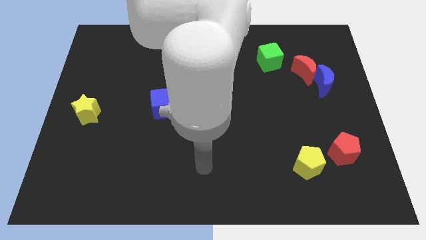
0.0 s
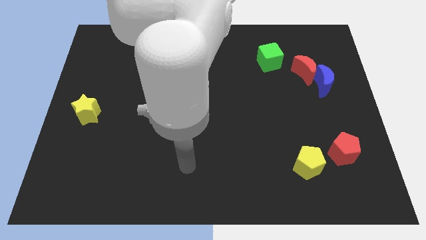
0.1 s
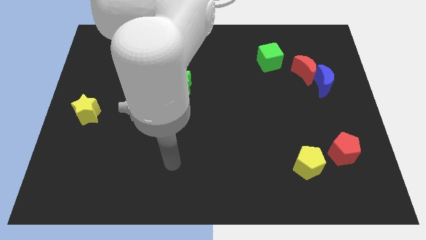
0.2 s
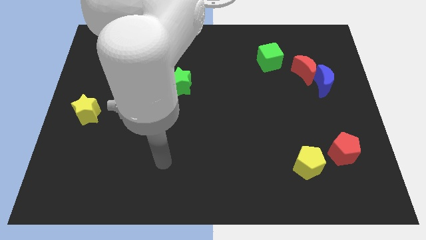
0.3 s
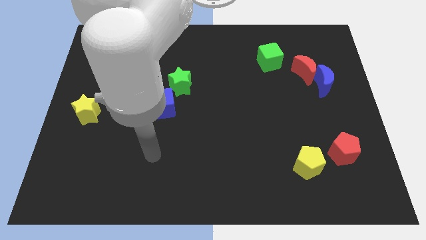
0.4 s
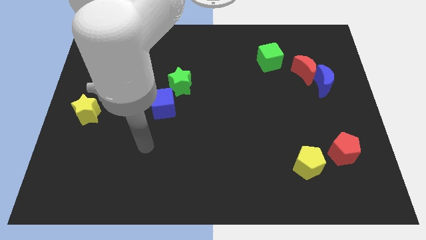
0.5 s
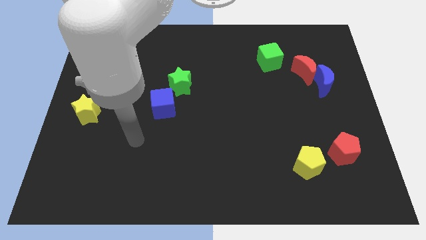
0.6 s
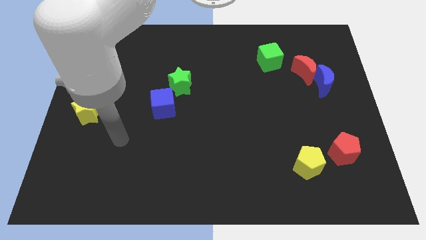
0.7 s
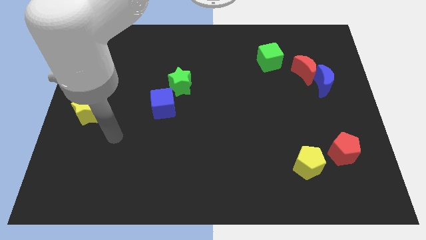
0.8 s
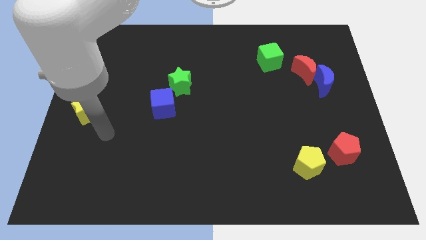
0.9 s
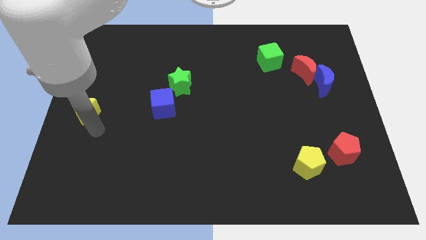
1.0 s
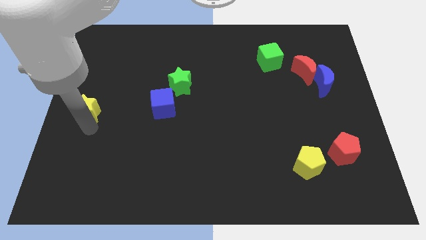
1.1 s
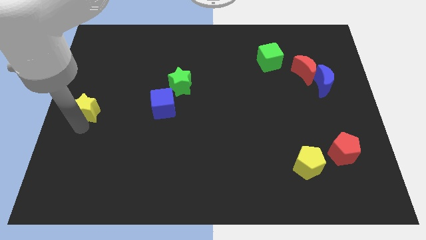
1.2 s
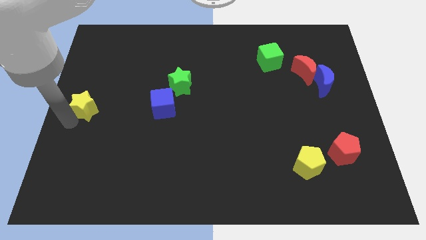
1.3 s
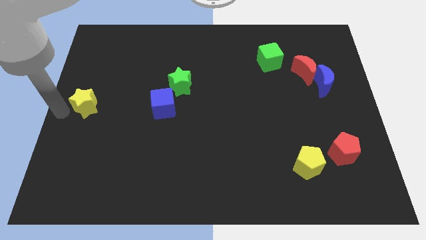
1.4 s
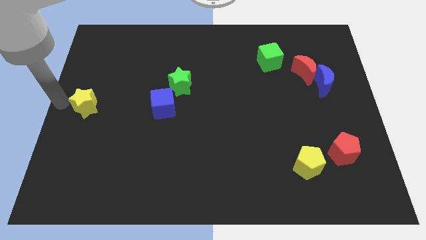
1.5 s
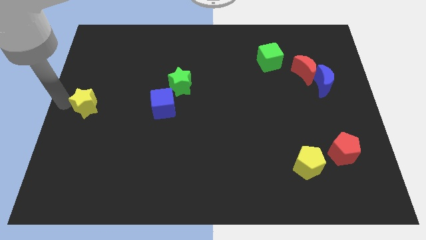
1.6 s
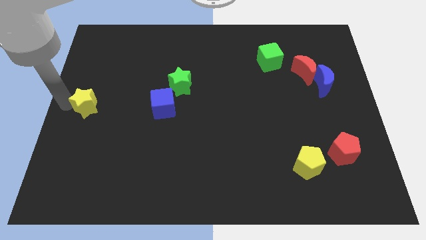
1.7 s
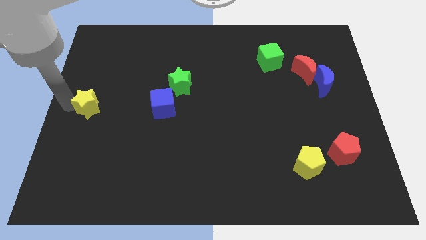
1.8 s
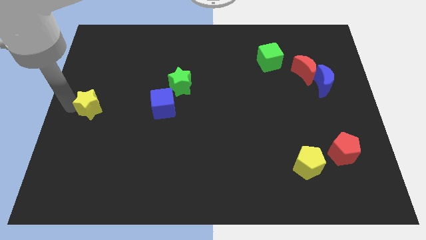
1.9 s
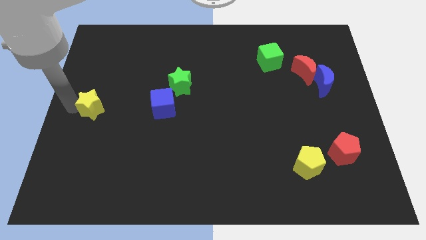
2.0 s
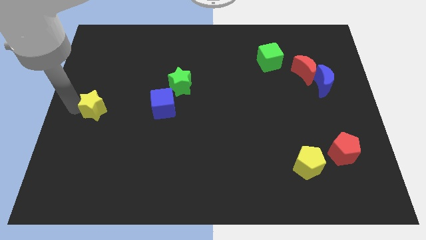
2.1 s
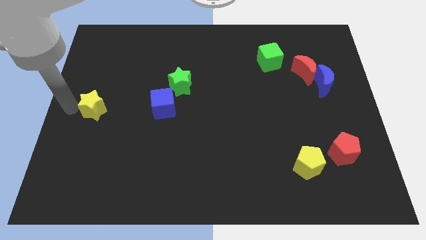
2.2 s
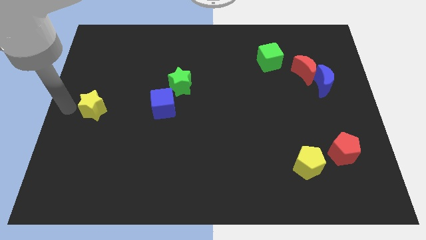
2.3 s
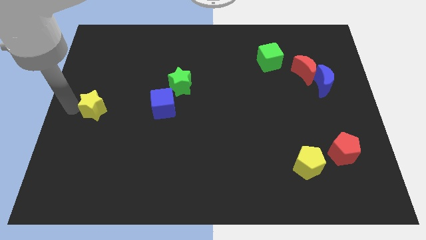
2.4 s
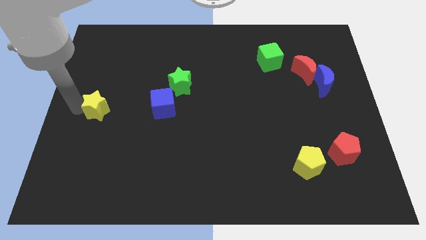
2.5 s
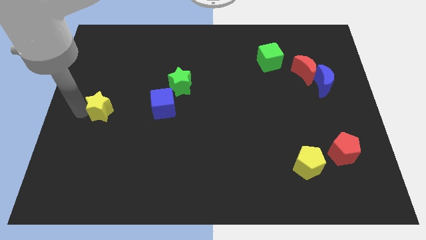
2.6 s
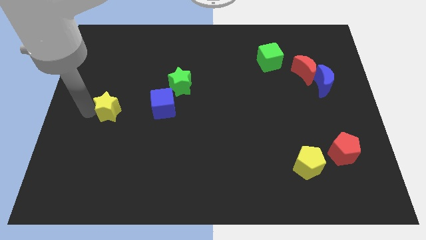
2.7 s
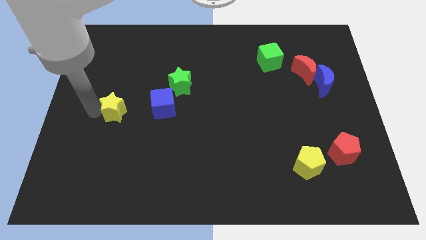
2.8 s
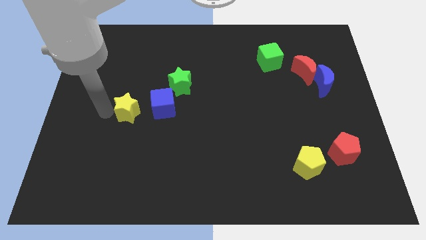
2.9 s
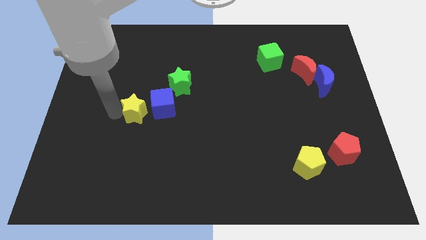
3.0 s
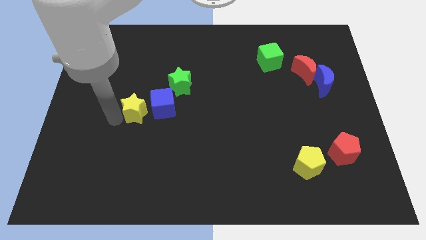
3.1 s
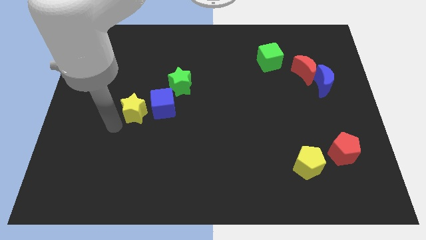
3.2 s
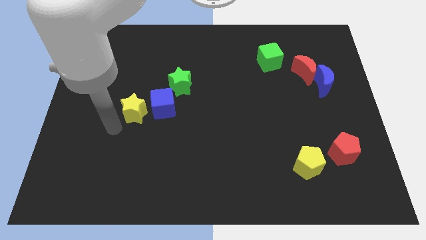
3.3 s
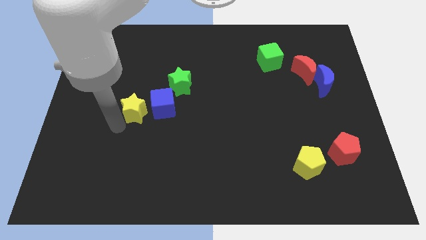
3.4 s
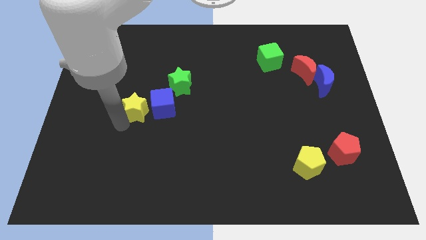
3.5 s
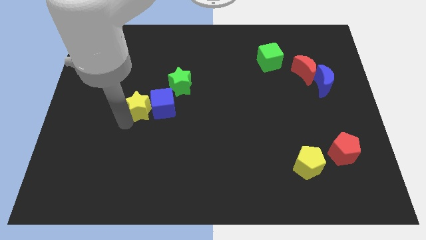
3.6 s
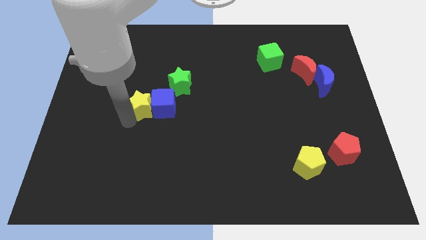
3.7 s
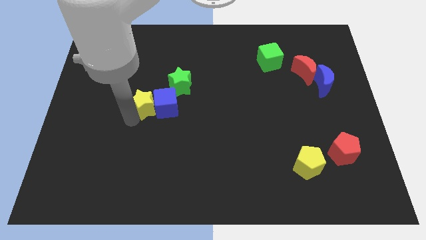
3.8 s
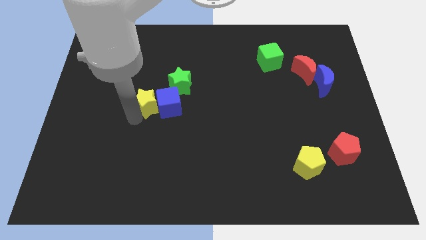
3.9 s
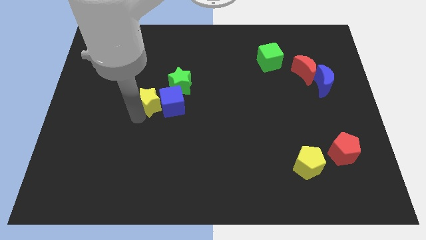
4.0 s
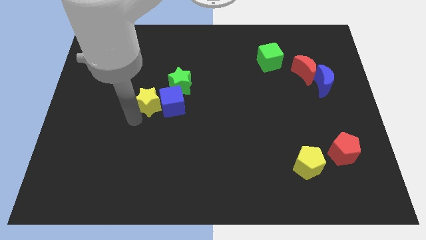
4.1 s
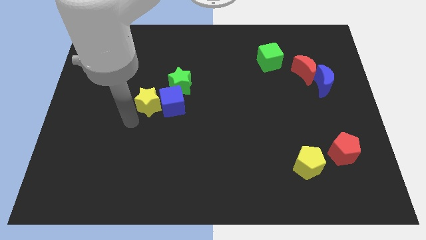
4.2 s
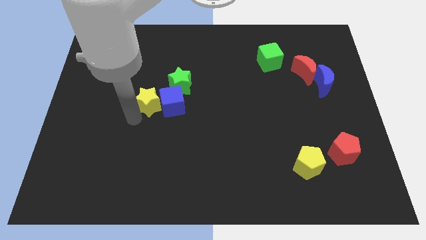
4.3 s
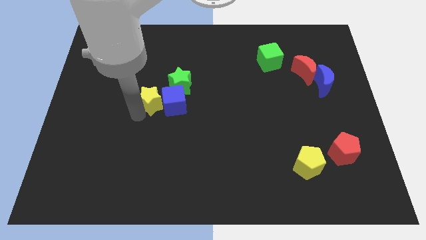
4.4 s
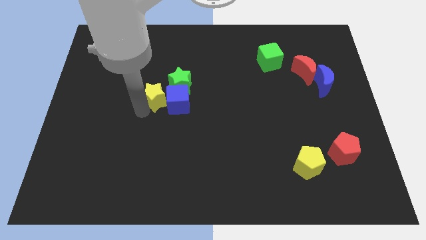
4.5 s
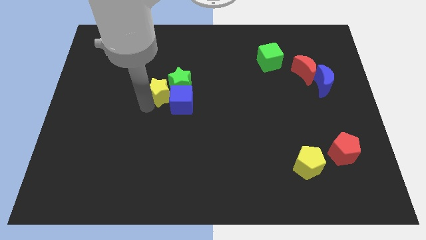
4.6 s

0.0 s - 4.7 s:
push the yellow star next to the green star

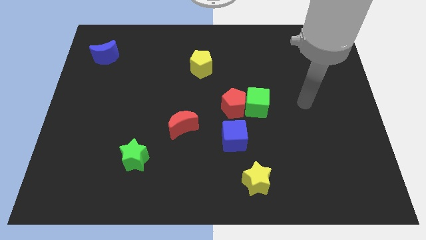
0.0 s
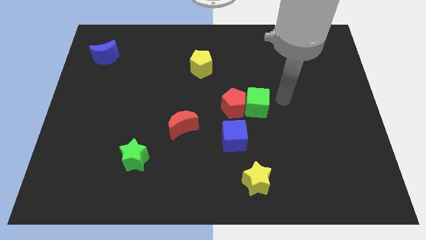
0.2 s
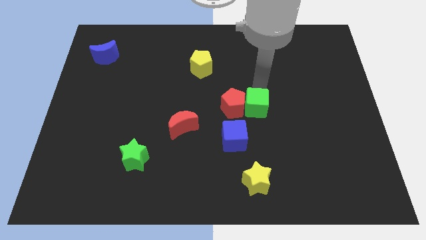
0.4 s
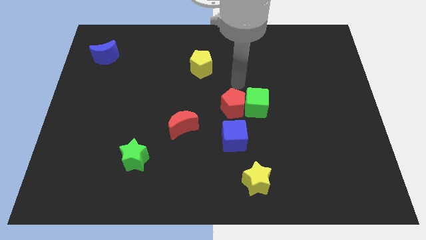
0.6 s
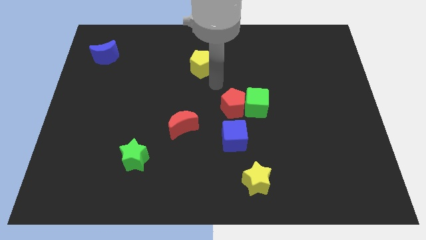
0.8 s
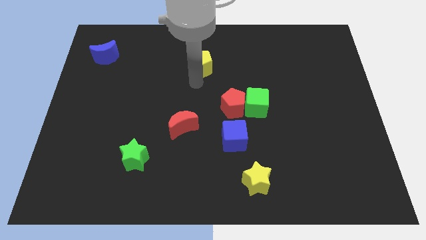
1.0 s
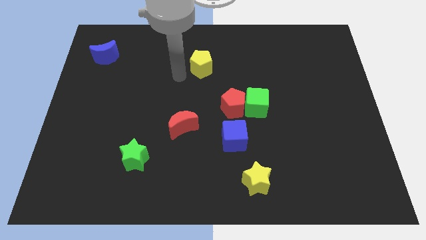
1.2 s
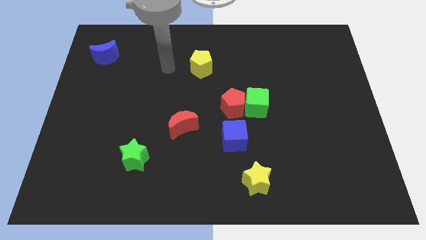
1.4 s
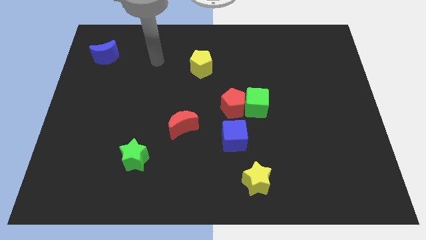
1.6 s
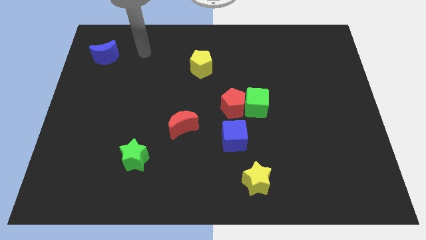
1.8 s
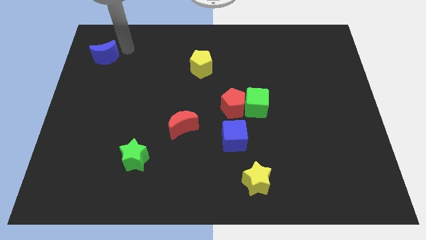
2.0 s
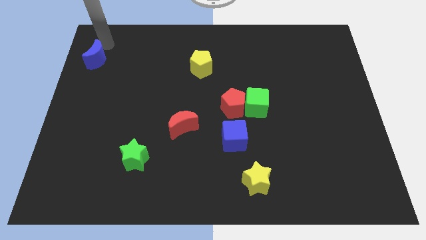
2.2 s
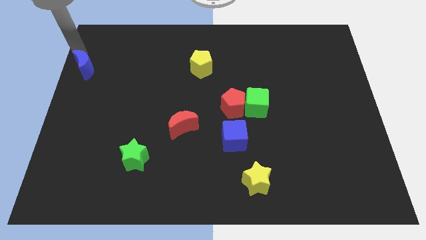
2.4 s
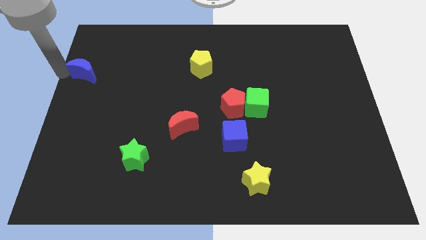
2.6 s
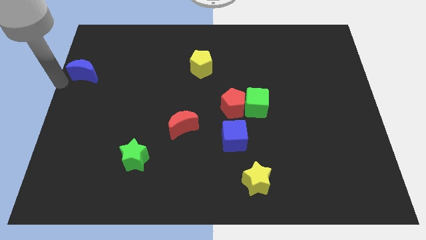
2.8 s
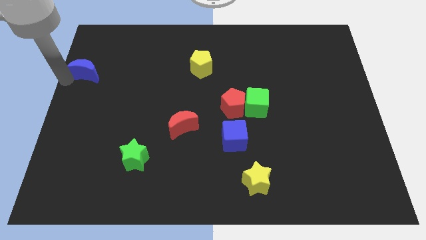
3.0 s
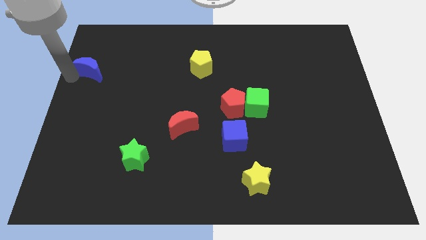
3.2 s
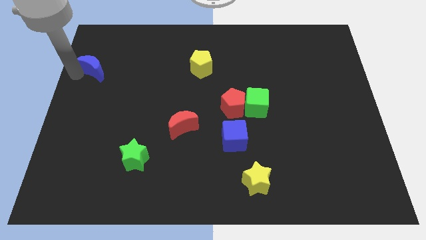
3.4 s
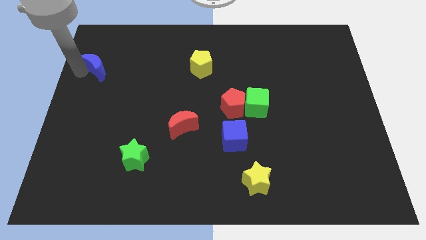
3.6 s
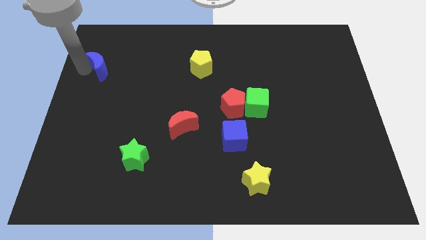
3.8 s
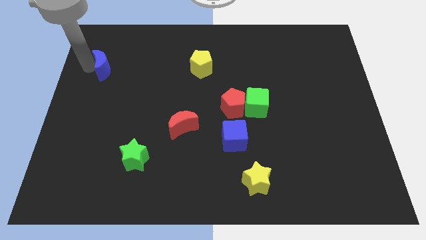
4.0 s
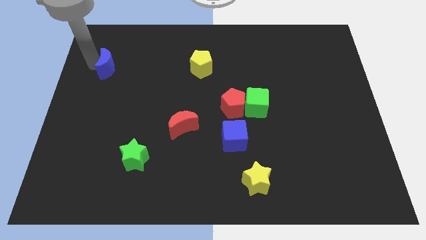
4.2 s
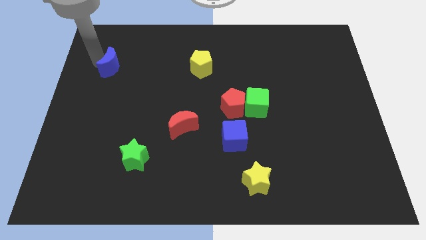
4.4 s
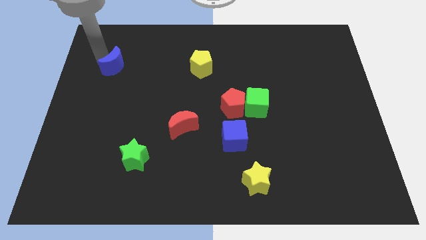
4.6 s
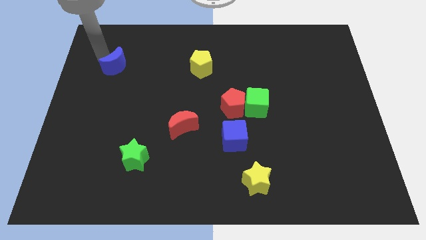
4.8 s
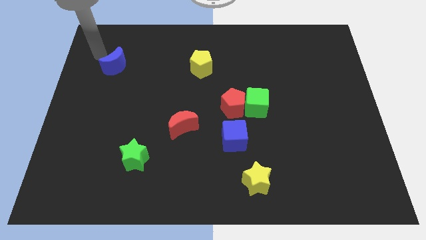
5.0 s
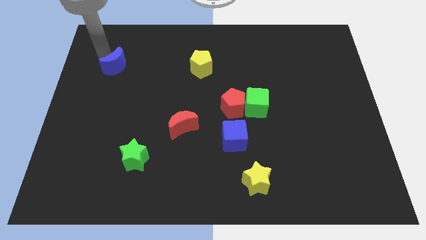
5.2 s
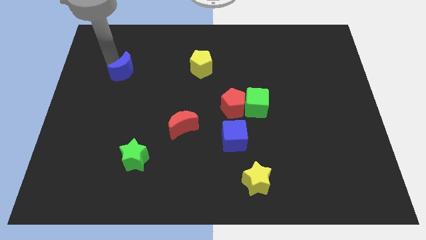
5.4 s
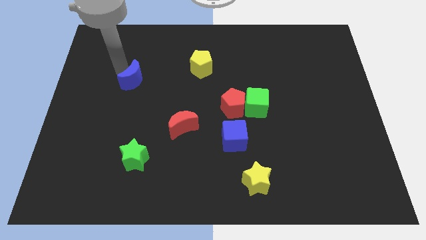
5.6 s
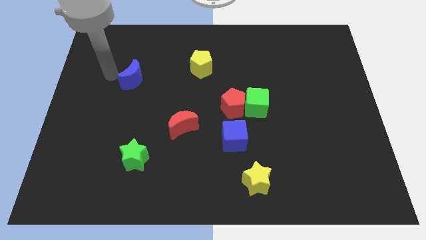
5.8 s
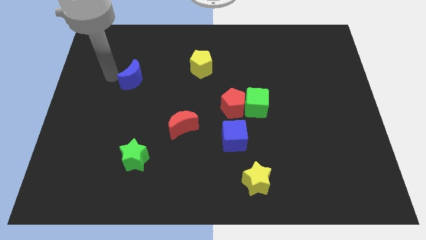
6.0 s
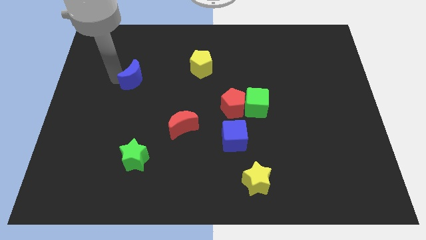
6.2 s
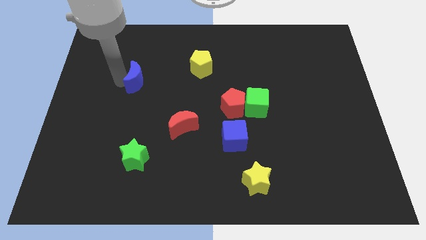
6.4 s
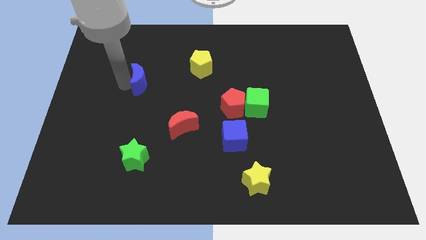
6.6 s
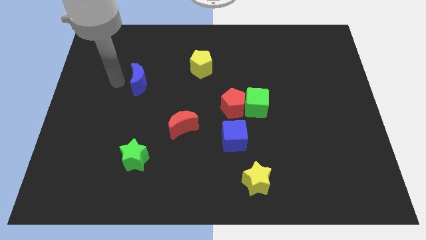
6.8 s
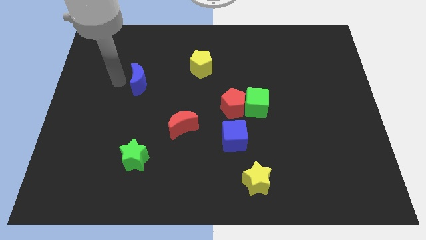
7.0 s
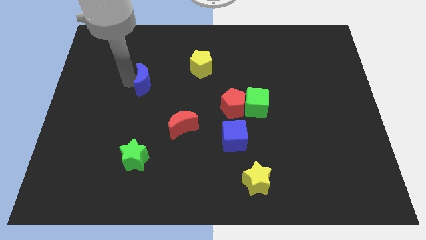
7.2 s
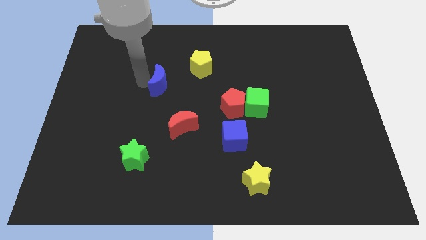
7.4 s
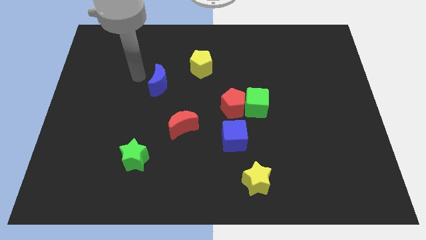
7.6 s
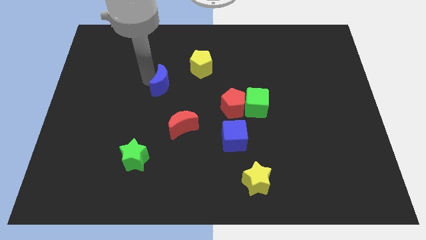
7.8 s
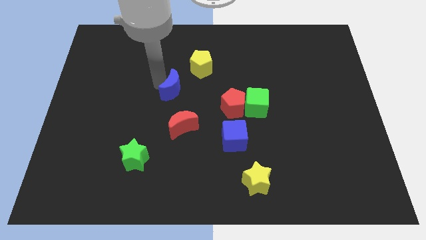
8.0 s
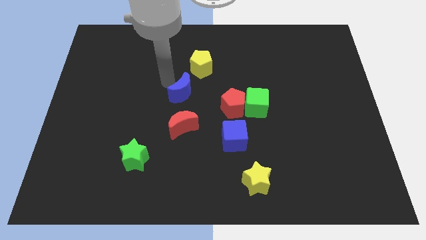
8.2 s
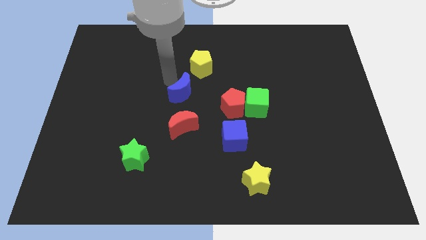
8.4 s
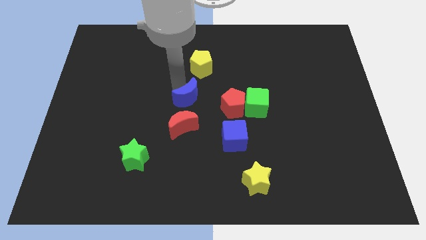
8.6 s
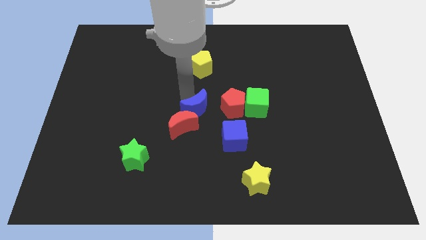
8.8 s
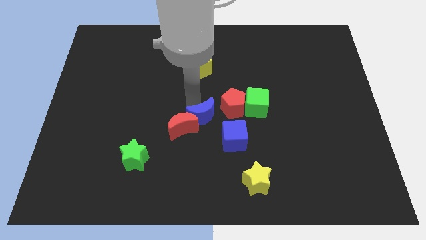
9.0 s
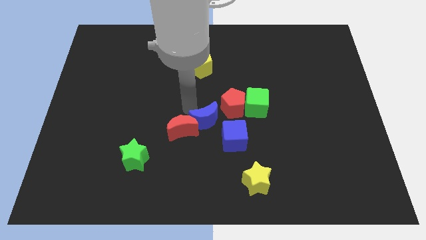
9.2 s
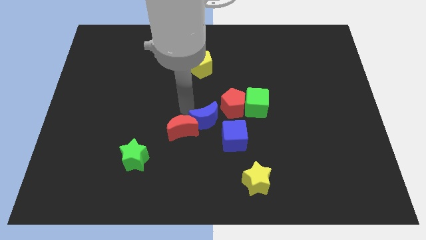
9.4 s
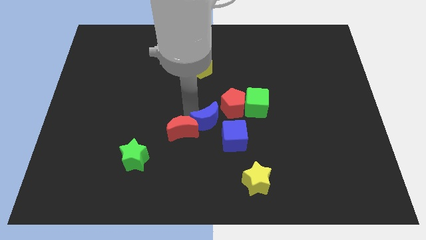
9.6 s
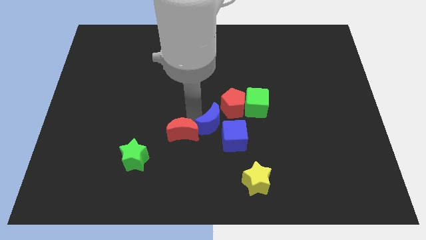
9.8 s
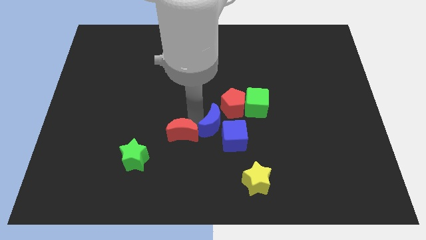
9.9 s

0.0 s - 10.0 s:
push the blue moon close to the blue cube
